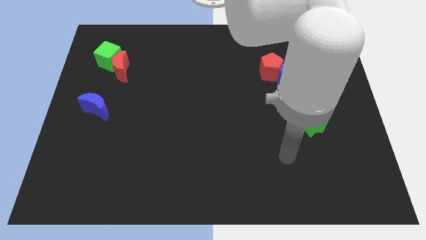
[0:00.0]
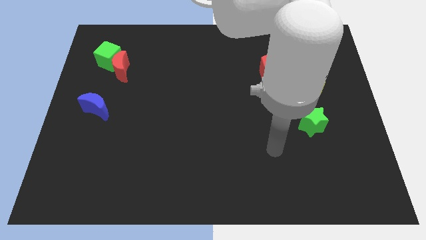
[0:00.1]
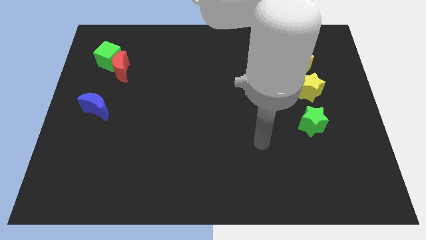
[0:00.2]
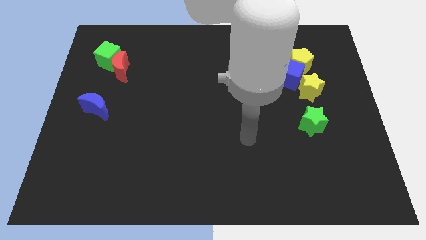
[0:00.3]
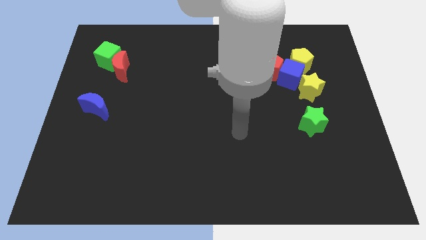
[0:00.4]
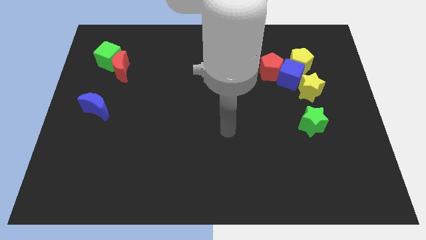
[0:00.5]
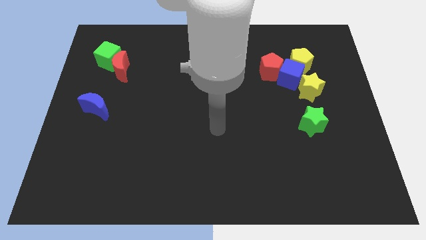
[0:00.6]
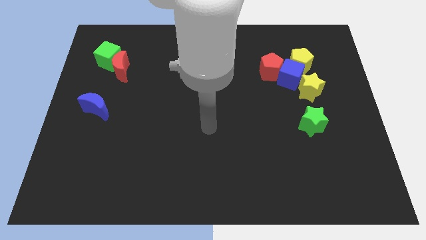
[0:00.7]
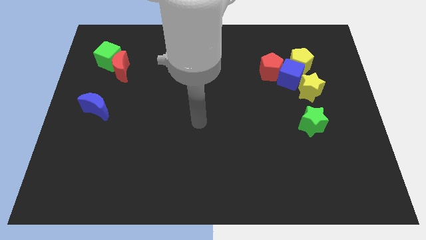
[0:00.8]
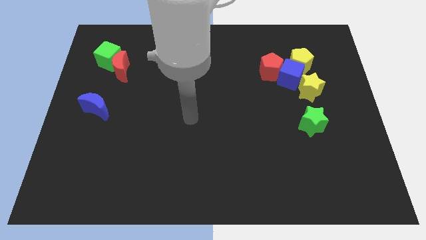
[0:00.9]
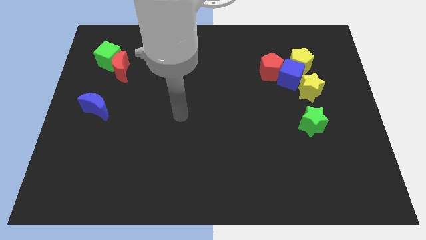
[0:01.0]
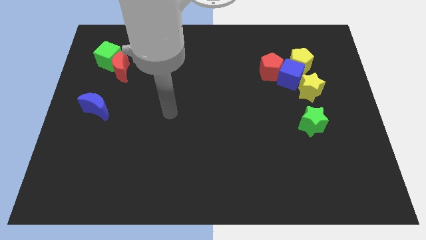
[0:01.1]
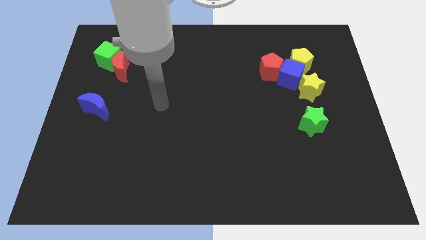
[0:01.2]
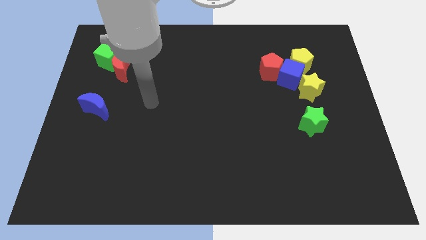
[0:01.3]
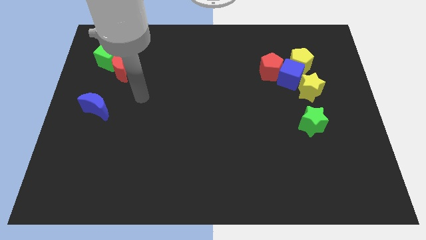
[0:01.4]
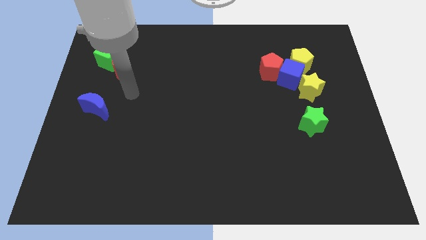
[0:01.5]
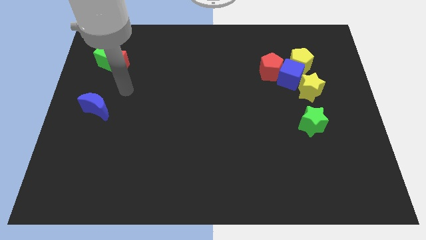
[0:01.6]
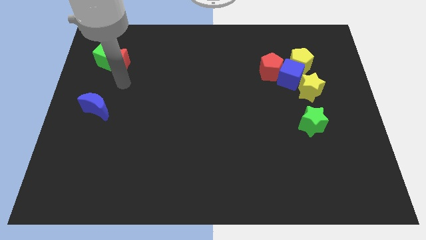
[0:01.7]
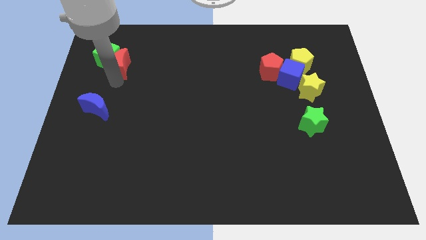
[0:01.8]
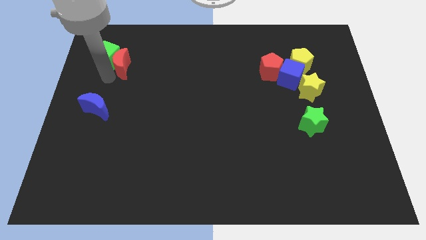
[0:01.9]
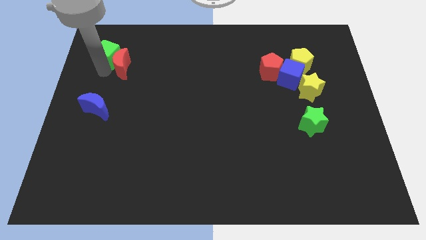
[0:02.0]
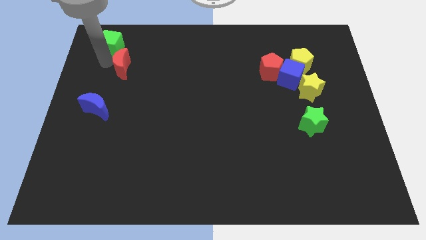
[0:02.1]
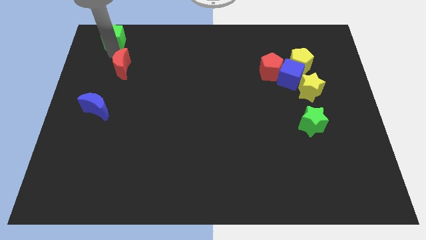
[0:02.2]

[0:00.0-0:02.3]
pull the red moon apart from the green cube

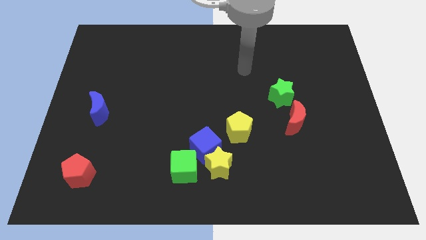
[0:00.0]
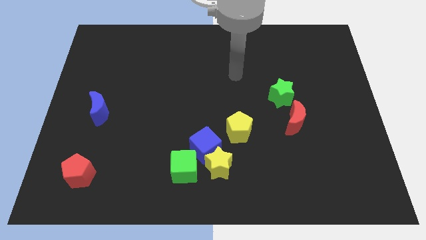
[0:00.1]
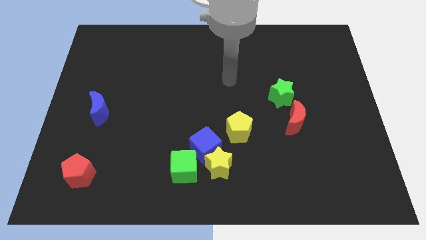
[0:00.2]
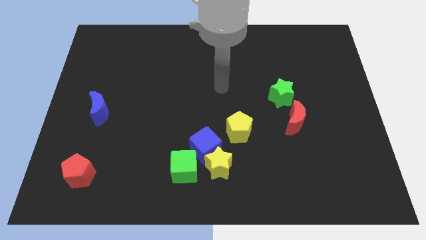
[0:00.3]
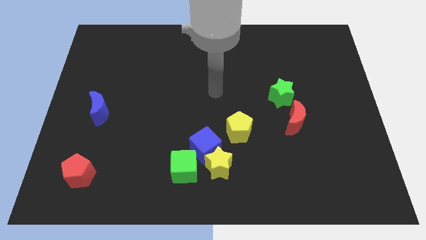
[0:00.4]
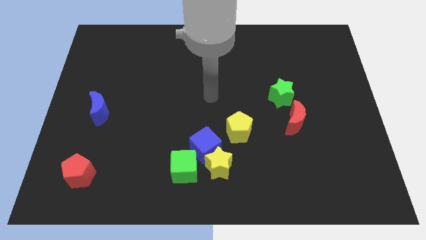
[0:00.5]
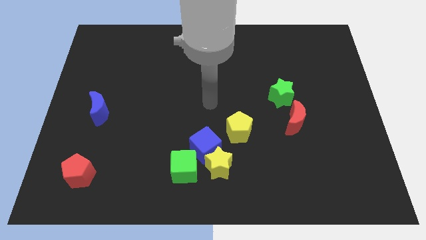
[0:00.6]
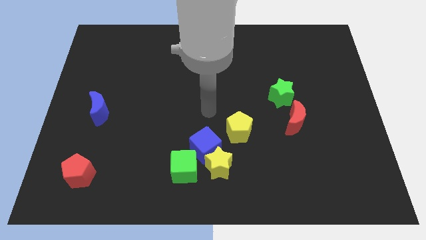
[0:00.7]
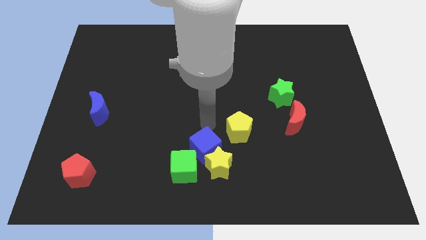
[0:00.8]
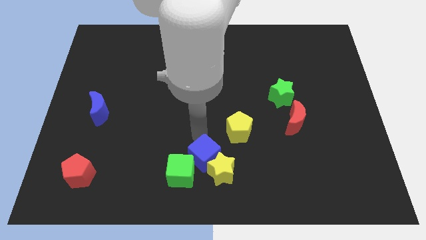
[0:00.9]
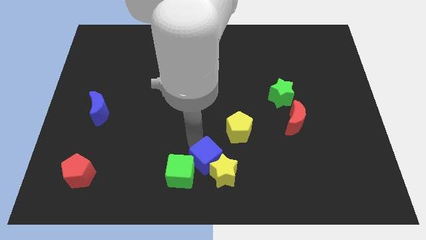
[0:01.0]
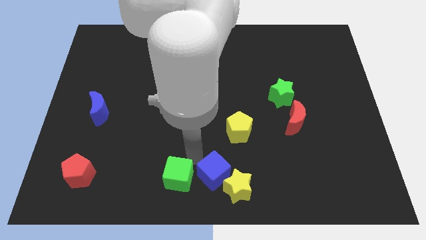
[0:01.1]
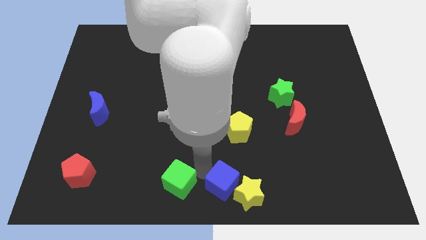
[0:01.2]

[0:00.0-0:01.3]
move the yellow star away from the blue cube and green cube

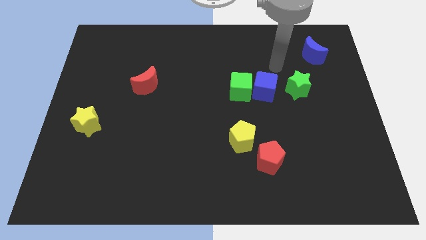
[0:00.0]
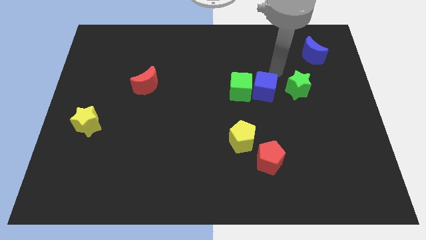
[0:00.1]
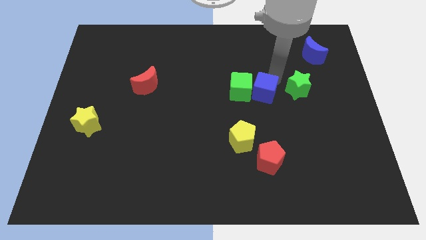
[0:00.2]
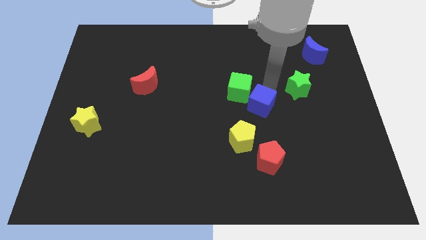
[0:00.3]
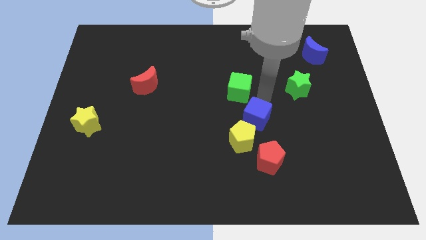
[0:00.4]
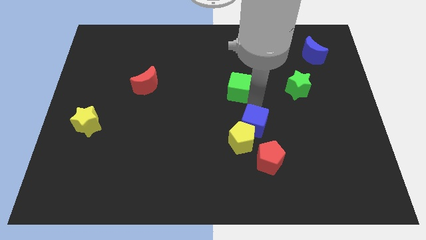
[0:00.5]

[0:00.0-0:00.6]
separate the green cube from the blue cube

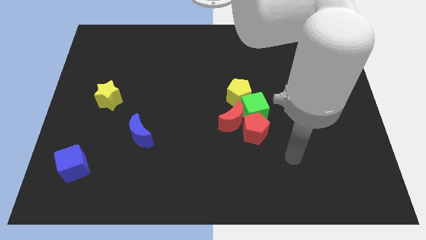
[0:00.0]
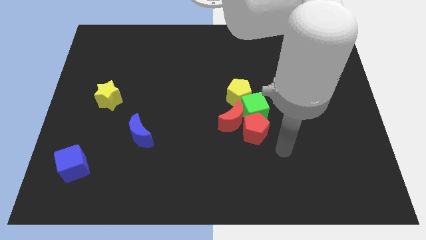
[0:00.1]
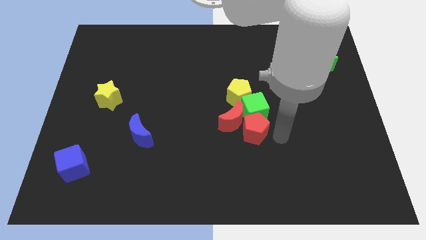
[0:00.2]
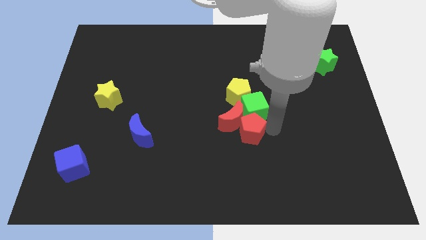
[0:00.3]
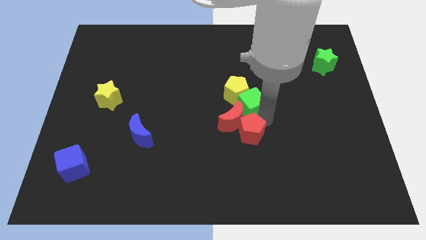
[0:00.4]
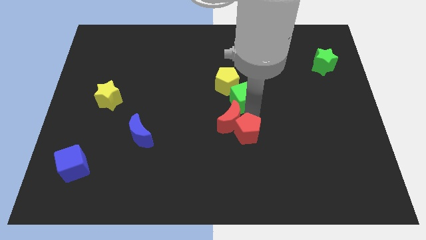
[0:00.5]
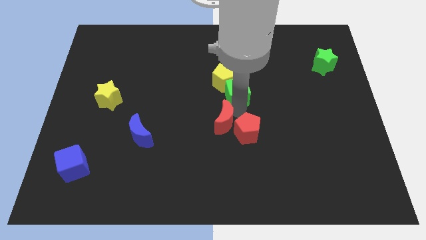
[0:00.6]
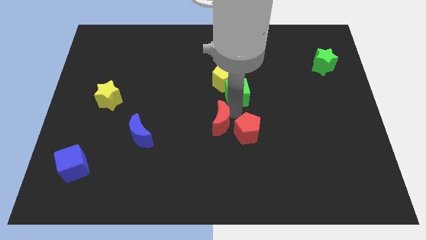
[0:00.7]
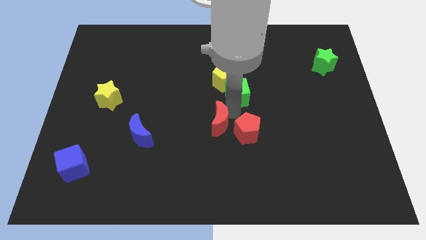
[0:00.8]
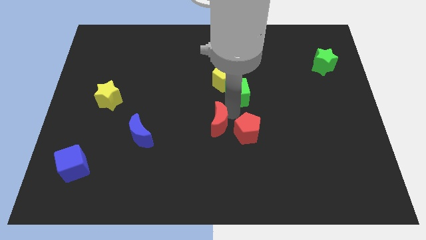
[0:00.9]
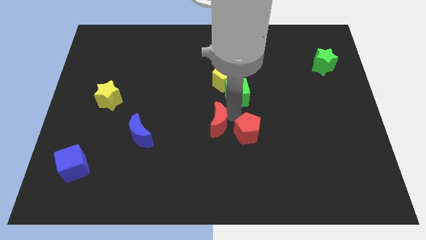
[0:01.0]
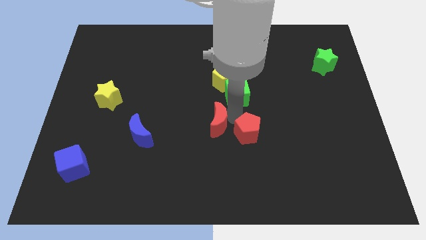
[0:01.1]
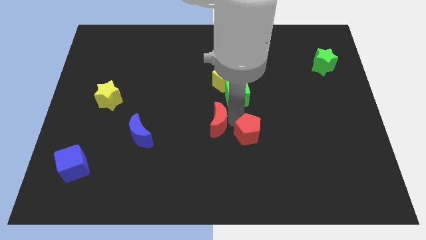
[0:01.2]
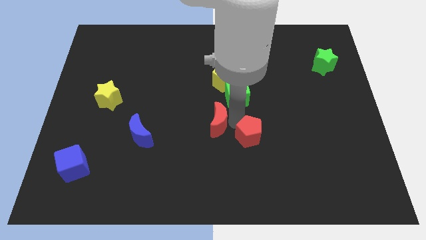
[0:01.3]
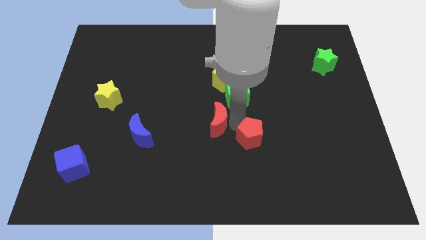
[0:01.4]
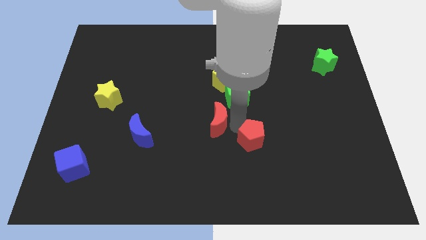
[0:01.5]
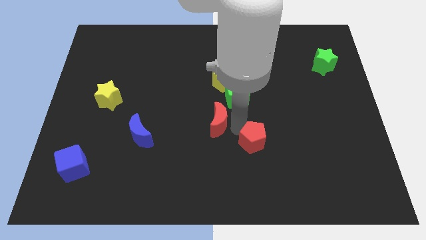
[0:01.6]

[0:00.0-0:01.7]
move the red pentagon away from the red moon and green cube

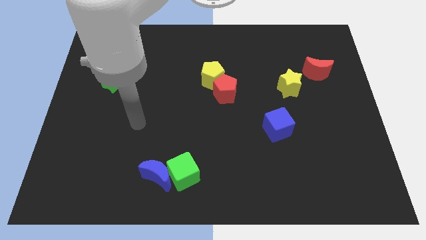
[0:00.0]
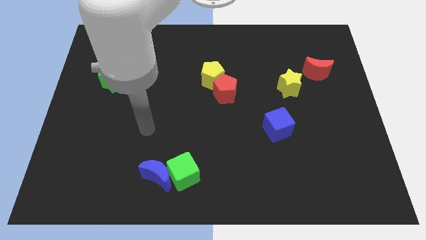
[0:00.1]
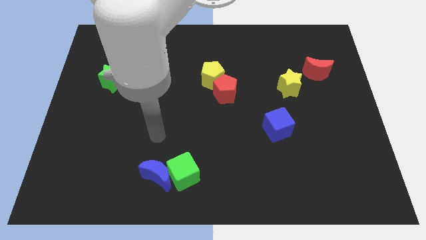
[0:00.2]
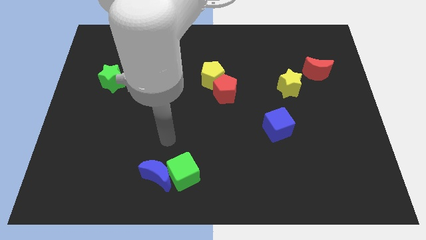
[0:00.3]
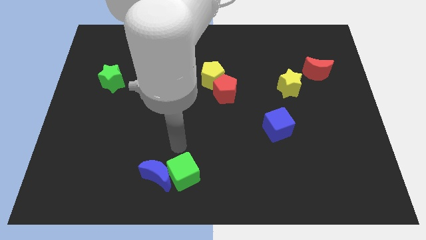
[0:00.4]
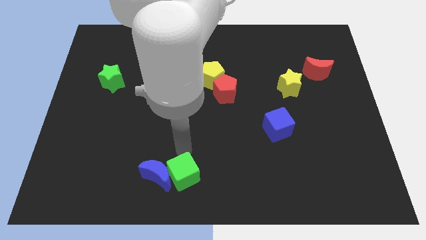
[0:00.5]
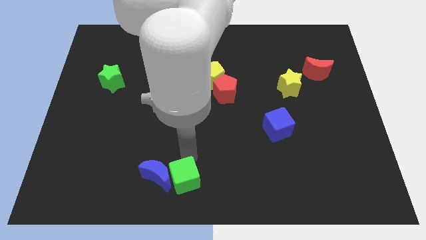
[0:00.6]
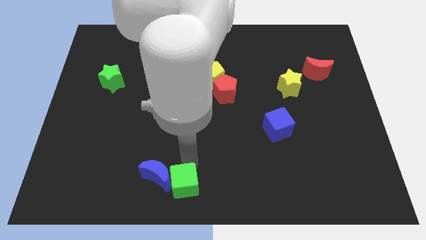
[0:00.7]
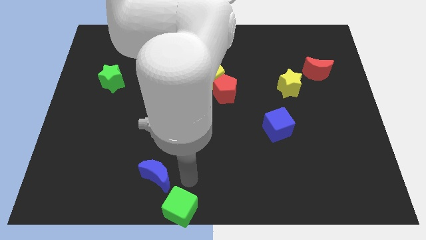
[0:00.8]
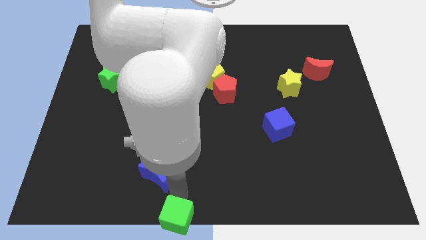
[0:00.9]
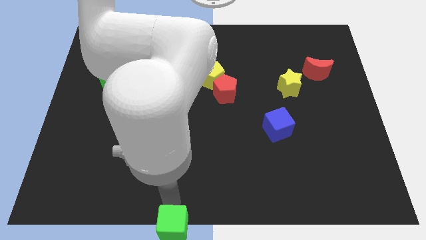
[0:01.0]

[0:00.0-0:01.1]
move the blue moon away from the green cube

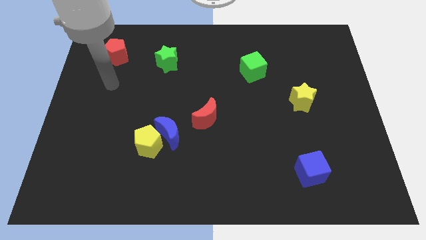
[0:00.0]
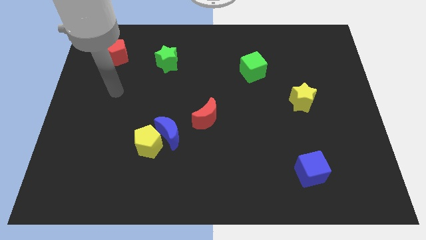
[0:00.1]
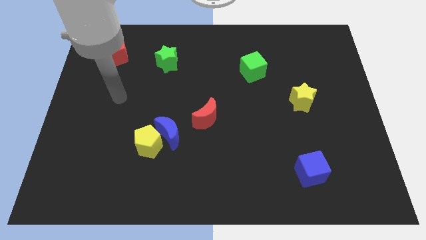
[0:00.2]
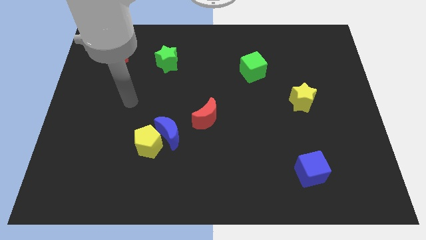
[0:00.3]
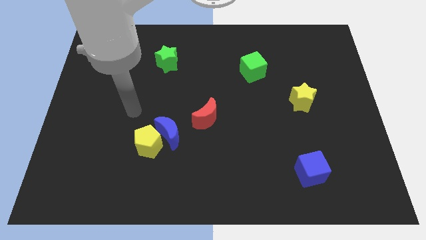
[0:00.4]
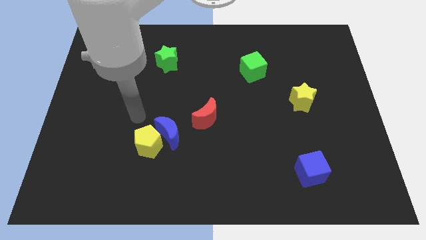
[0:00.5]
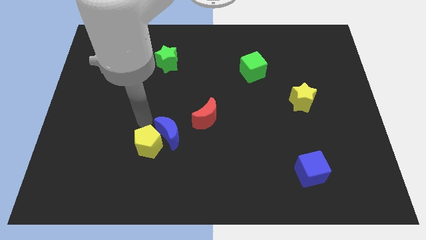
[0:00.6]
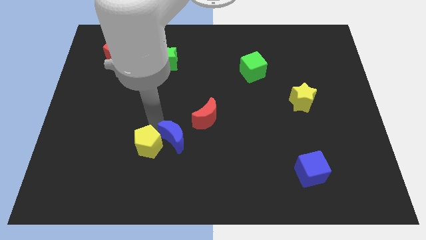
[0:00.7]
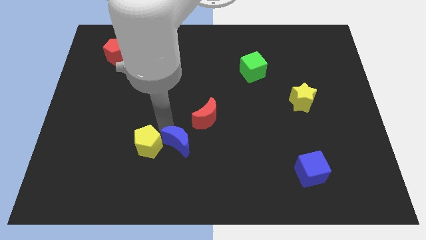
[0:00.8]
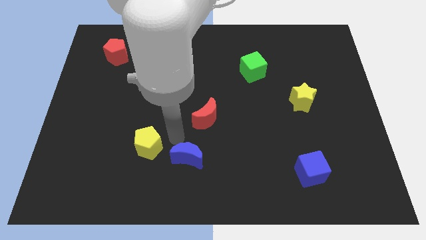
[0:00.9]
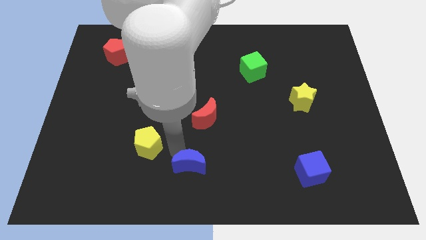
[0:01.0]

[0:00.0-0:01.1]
separate the yellow pentagon from the blue moon

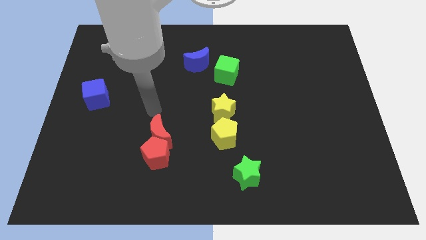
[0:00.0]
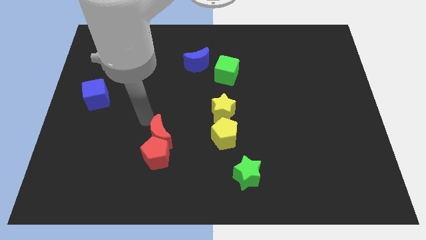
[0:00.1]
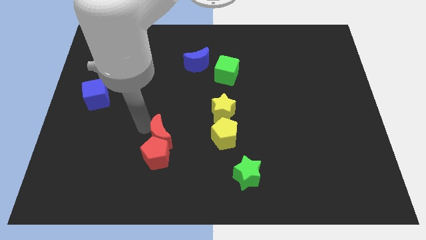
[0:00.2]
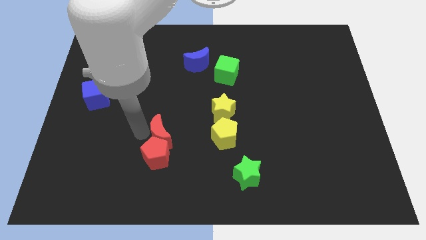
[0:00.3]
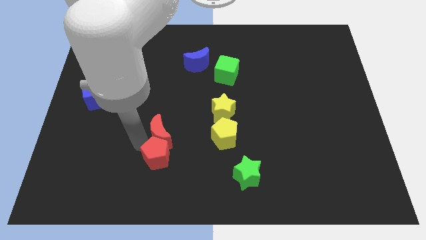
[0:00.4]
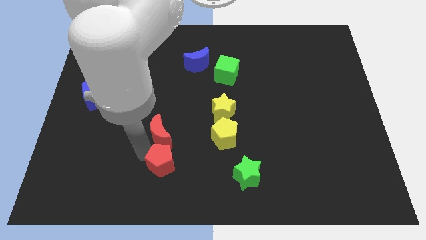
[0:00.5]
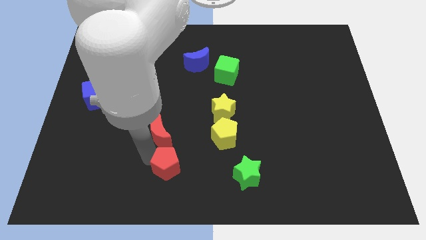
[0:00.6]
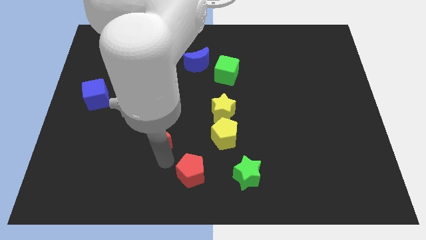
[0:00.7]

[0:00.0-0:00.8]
pull the red moon apart from the red pentagon

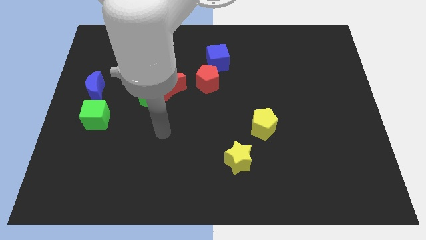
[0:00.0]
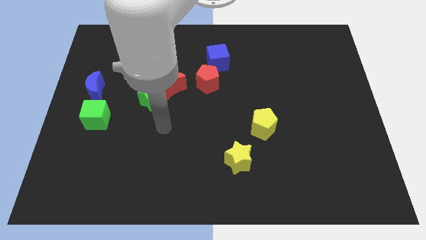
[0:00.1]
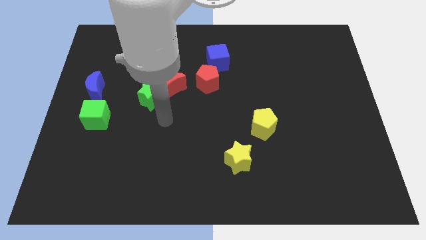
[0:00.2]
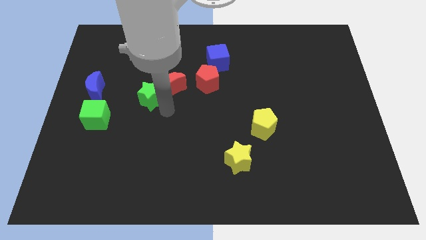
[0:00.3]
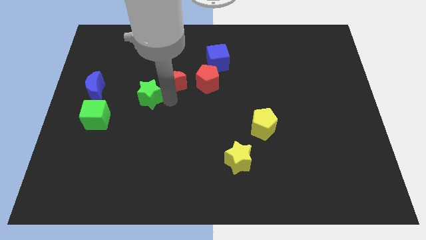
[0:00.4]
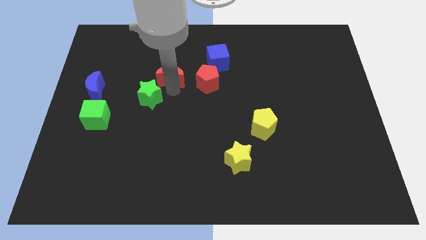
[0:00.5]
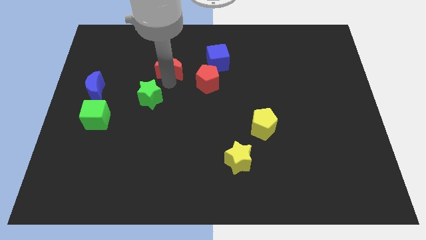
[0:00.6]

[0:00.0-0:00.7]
pull the green star apart from the red moon
